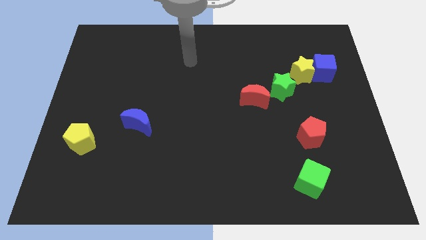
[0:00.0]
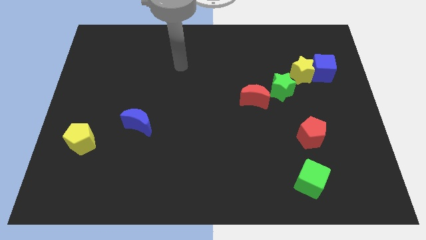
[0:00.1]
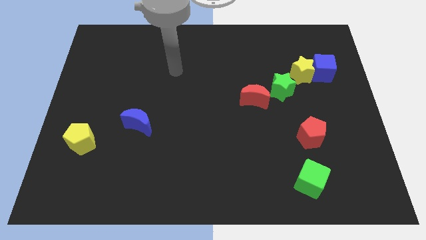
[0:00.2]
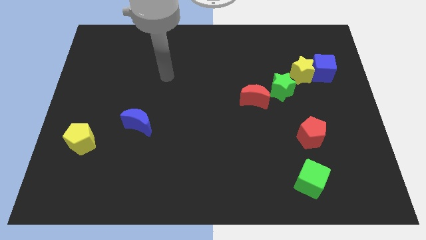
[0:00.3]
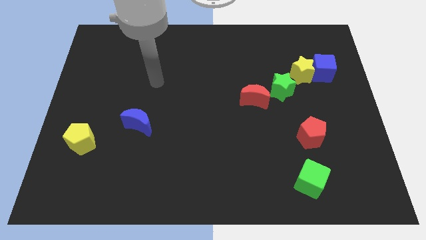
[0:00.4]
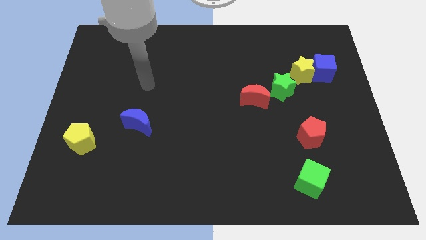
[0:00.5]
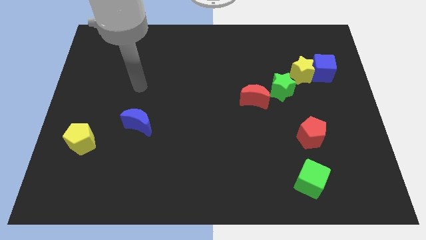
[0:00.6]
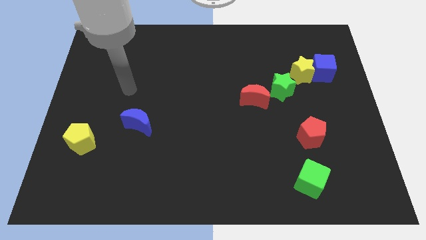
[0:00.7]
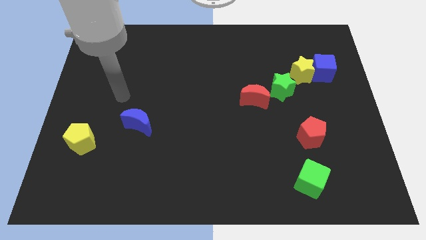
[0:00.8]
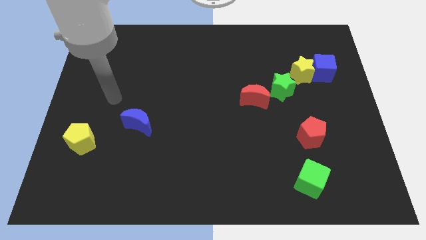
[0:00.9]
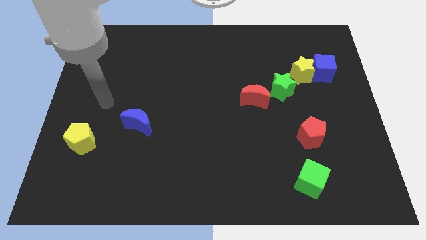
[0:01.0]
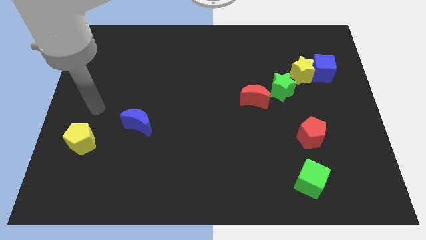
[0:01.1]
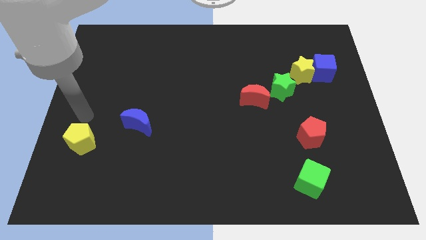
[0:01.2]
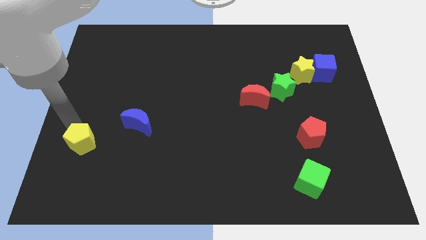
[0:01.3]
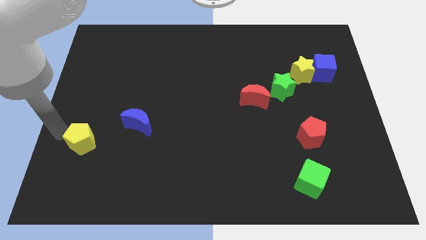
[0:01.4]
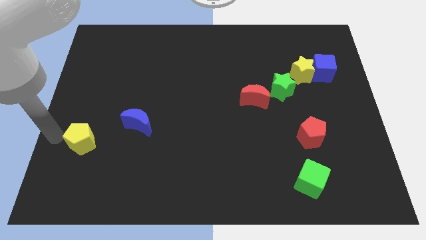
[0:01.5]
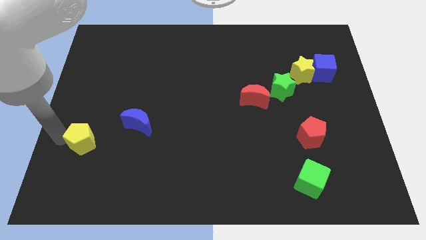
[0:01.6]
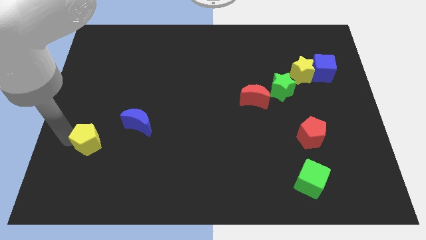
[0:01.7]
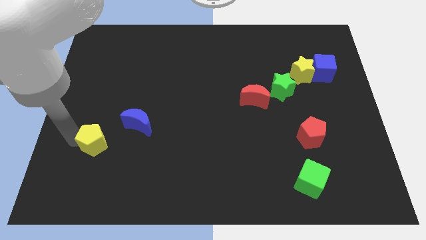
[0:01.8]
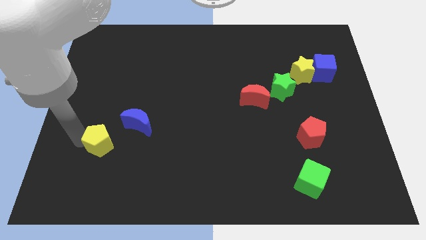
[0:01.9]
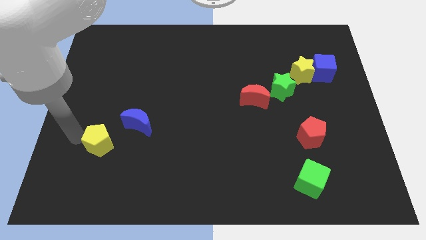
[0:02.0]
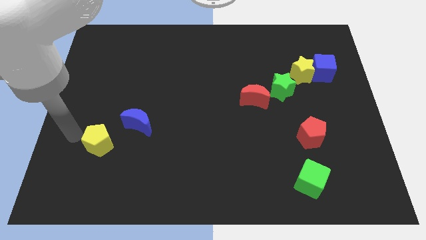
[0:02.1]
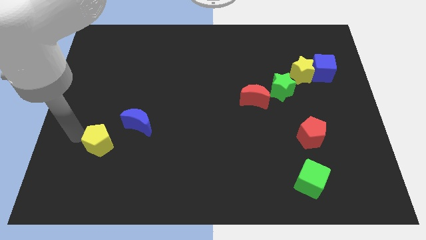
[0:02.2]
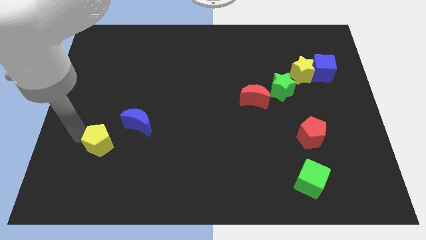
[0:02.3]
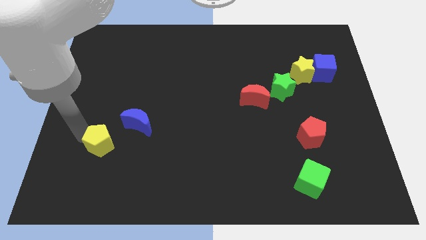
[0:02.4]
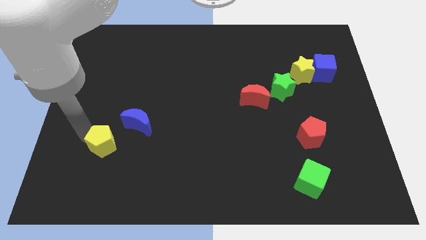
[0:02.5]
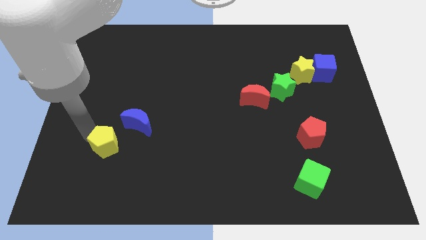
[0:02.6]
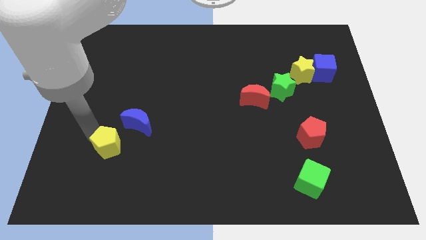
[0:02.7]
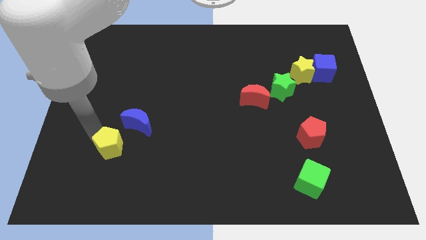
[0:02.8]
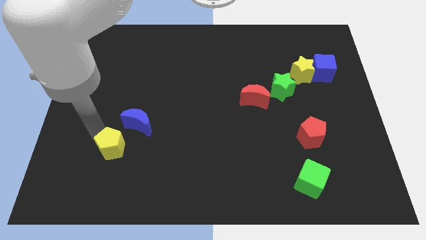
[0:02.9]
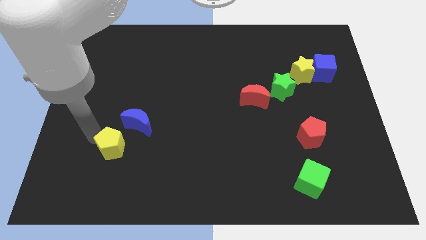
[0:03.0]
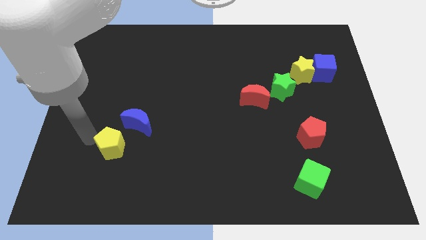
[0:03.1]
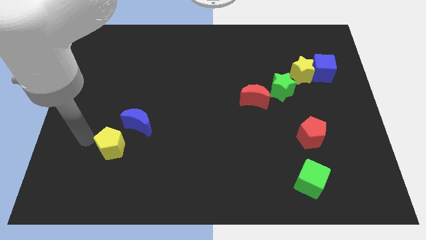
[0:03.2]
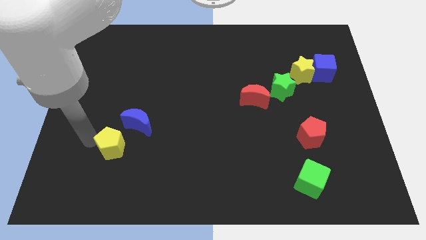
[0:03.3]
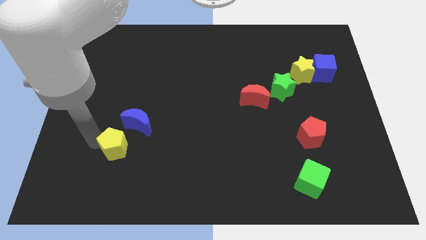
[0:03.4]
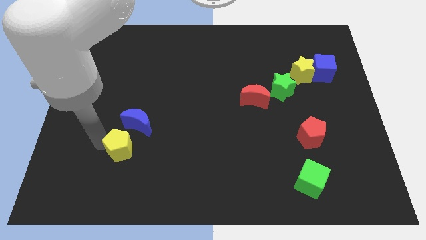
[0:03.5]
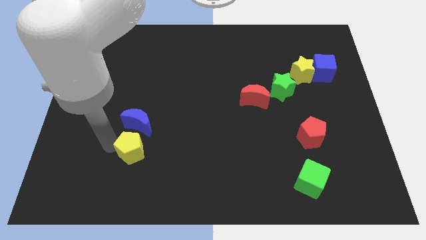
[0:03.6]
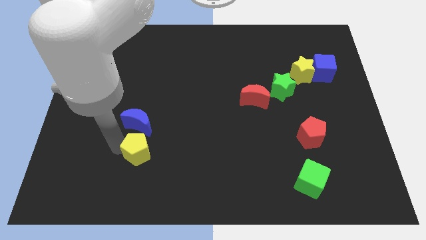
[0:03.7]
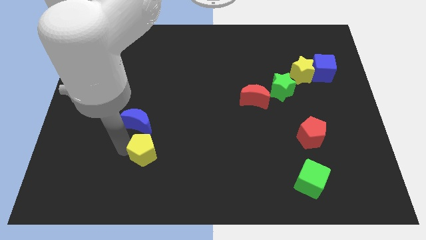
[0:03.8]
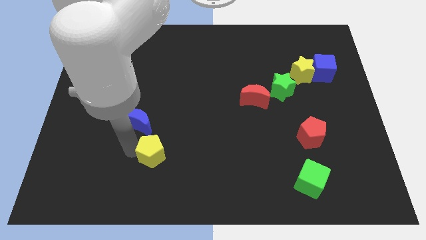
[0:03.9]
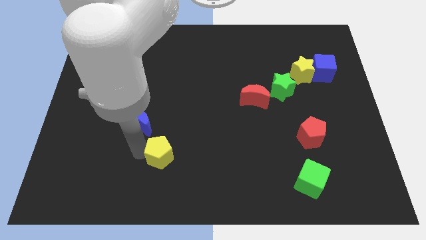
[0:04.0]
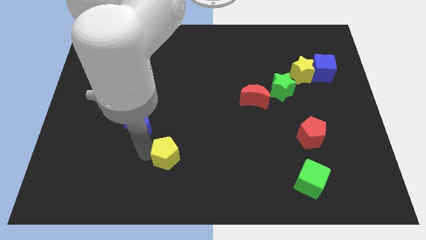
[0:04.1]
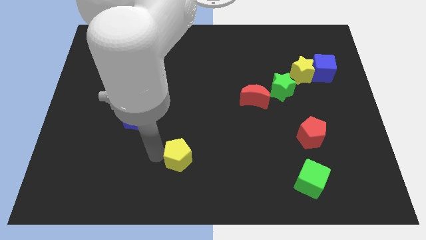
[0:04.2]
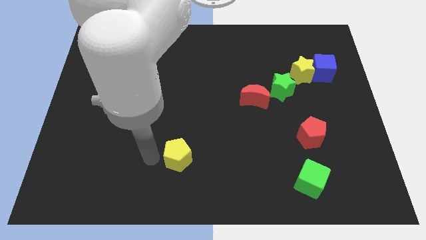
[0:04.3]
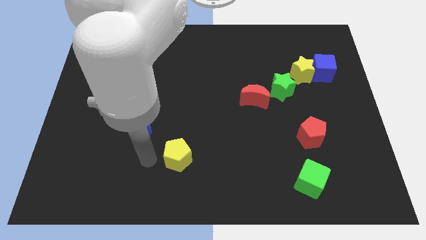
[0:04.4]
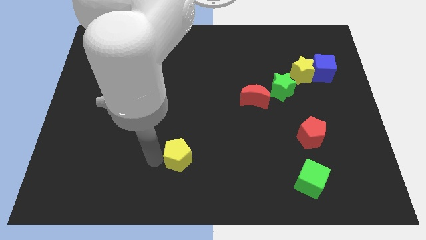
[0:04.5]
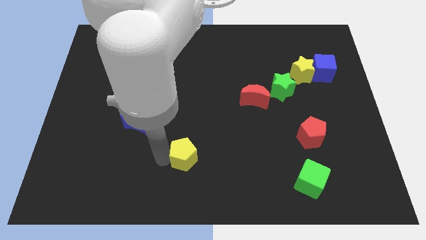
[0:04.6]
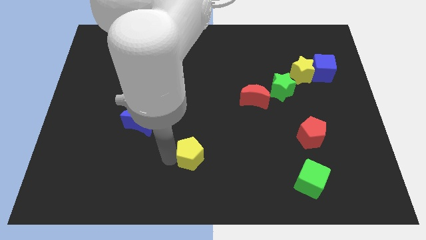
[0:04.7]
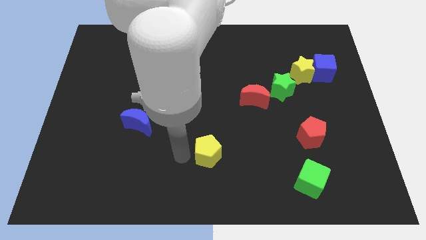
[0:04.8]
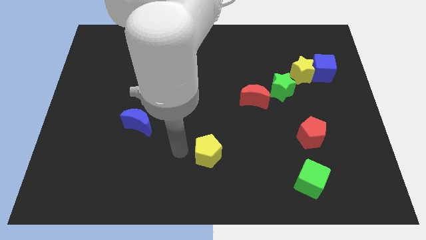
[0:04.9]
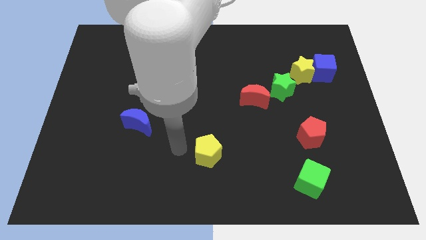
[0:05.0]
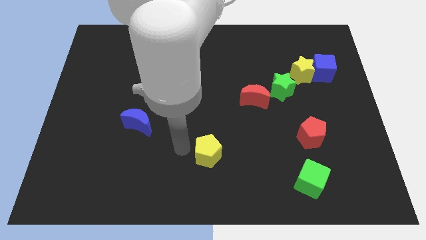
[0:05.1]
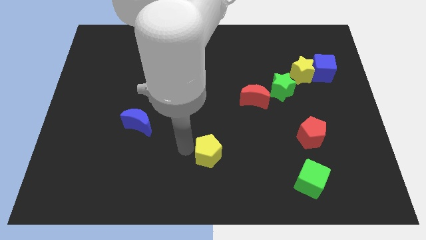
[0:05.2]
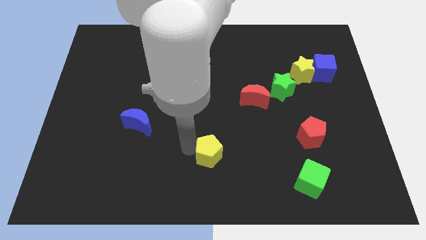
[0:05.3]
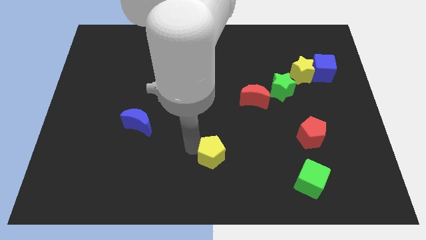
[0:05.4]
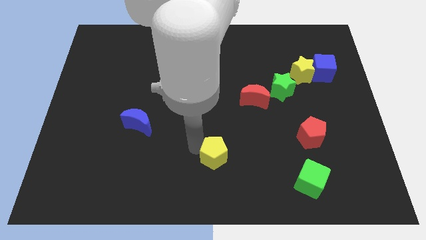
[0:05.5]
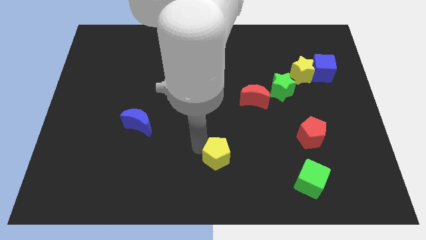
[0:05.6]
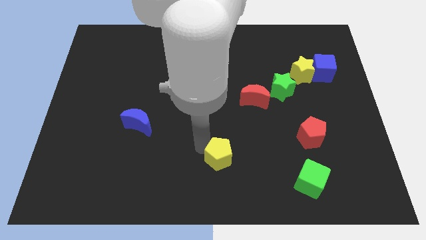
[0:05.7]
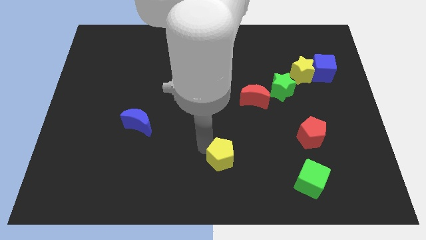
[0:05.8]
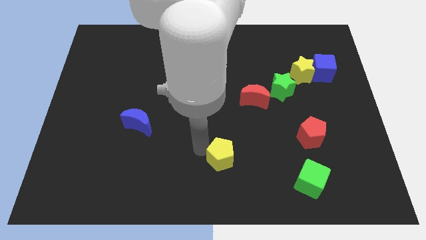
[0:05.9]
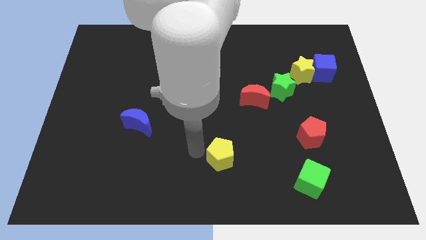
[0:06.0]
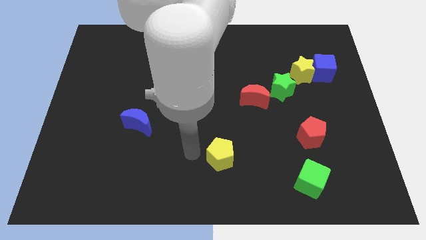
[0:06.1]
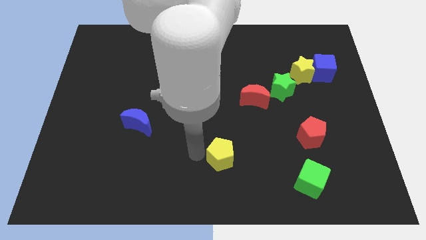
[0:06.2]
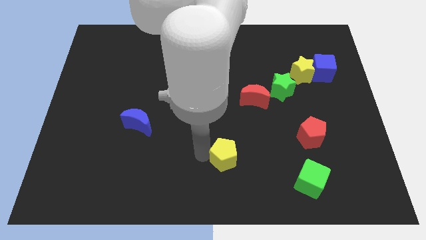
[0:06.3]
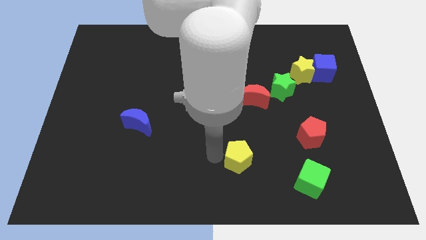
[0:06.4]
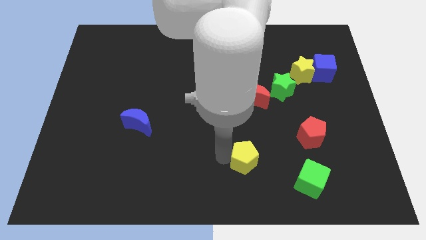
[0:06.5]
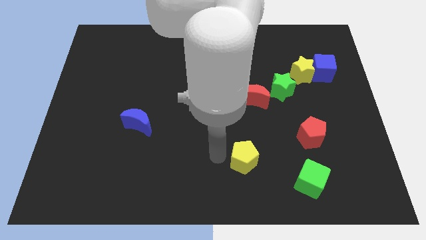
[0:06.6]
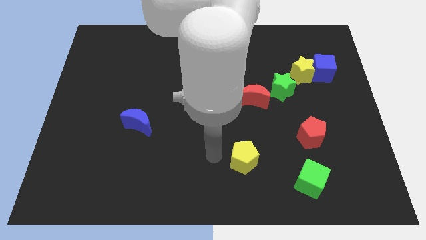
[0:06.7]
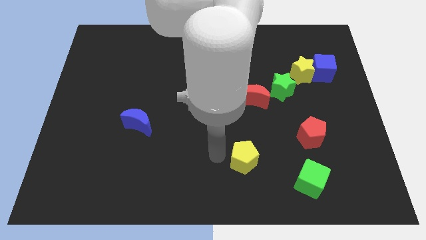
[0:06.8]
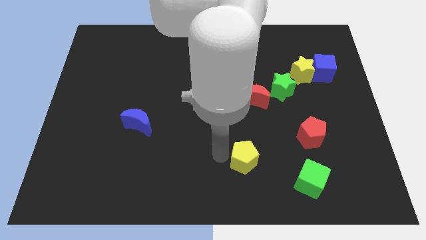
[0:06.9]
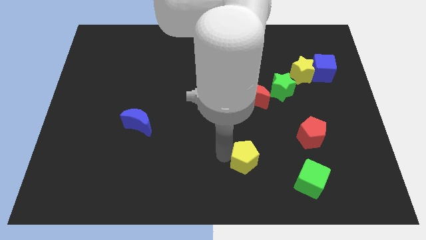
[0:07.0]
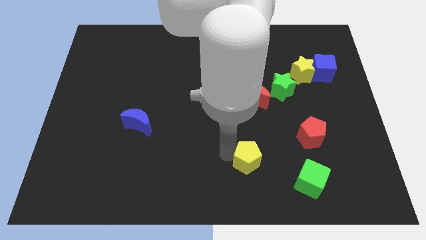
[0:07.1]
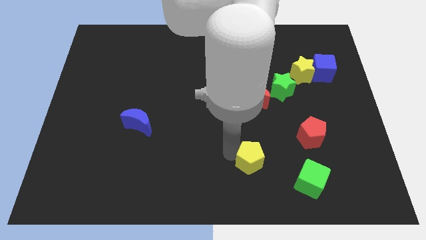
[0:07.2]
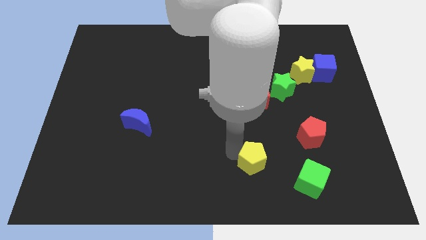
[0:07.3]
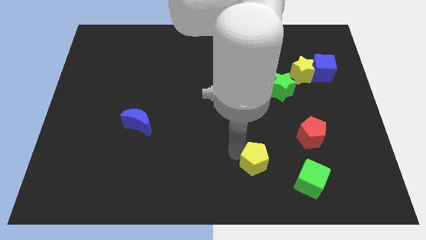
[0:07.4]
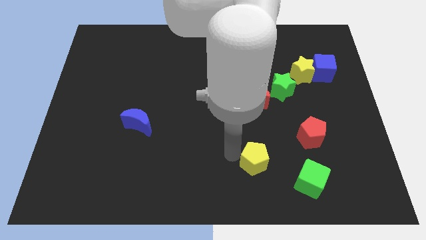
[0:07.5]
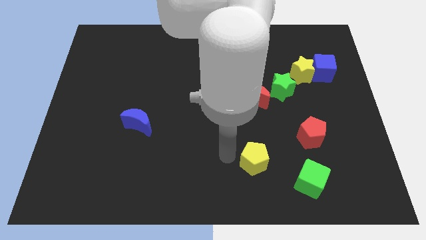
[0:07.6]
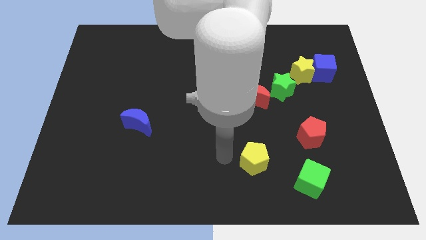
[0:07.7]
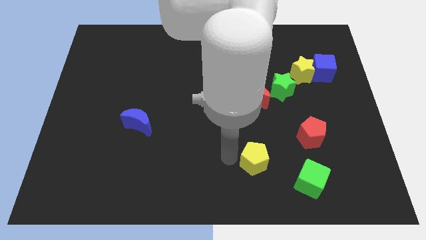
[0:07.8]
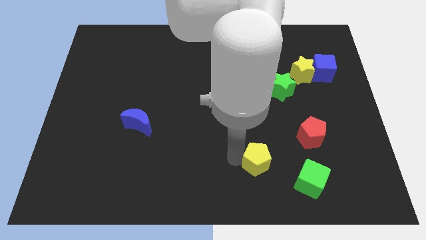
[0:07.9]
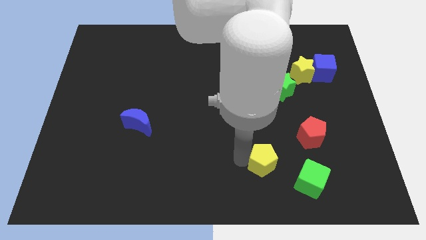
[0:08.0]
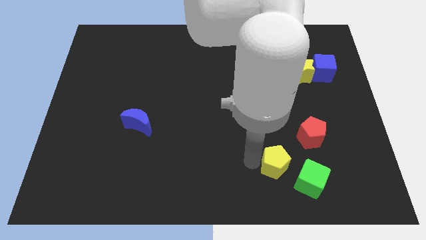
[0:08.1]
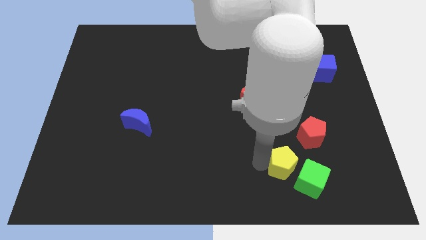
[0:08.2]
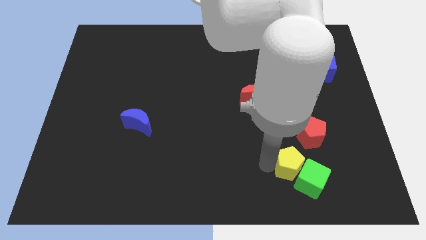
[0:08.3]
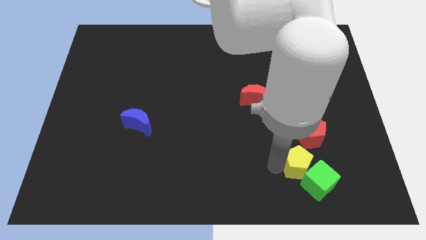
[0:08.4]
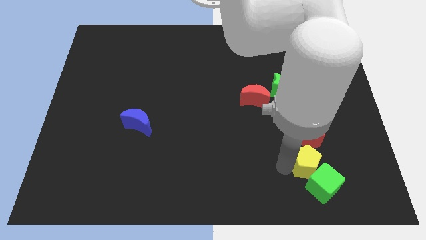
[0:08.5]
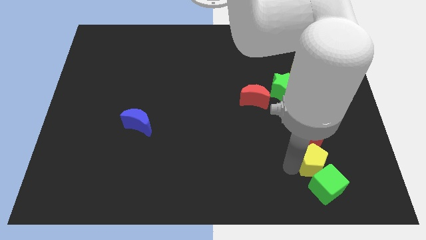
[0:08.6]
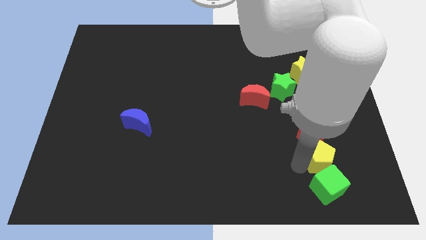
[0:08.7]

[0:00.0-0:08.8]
move the yellow pentagon to the bottom right of the red pentagon
